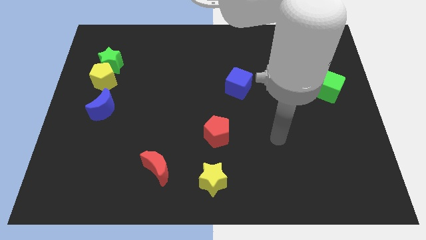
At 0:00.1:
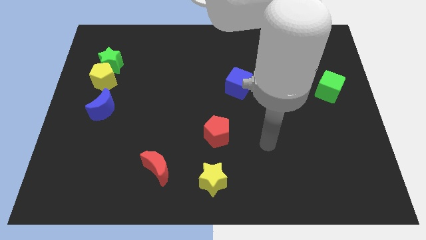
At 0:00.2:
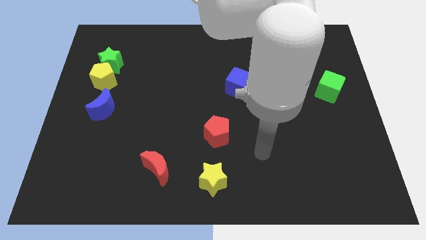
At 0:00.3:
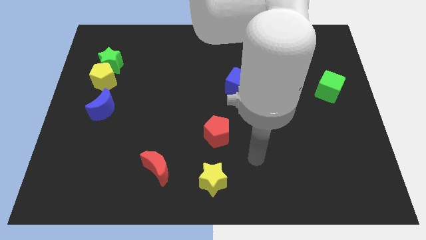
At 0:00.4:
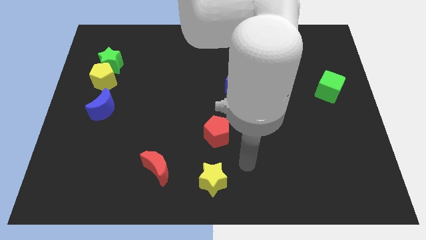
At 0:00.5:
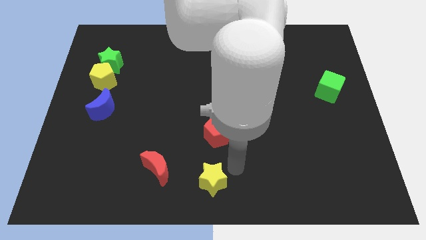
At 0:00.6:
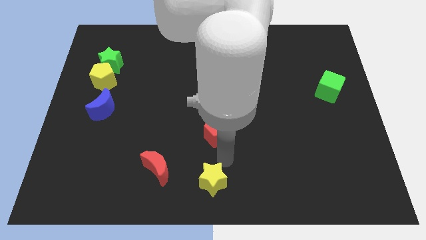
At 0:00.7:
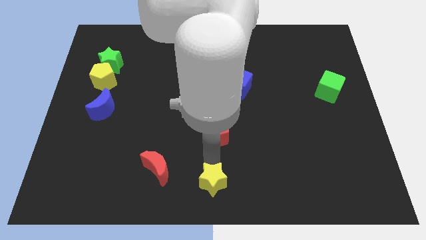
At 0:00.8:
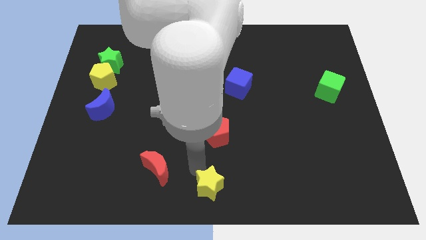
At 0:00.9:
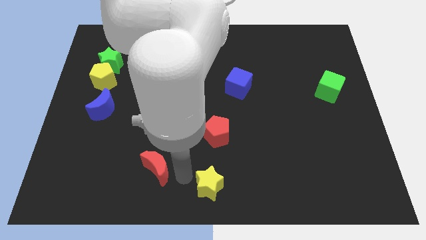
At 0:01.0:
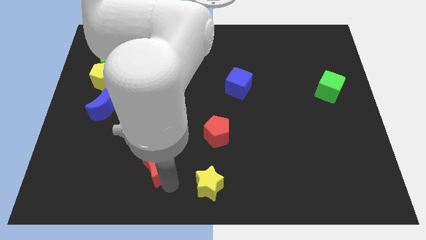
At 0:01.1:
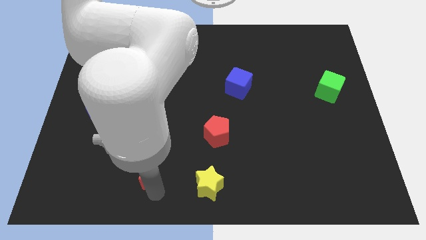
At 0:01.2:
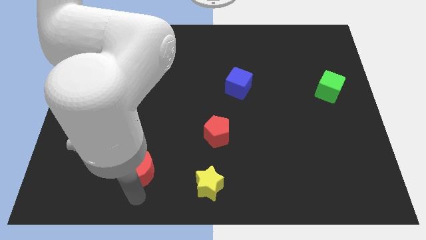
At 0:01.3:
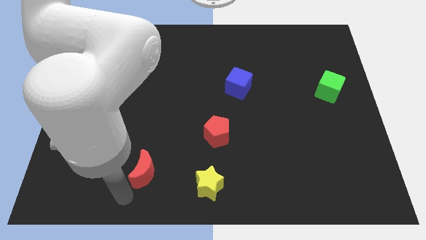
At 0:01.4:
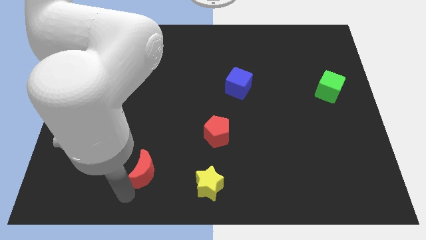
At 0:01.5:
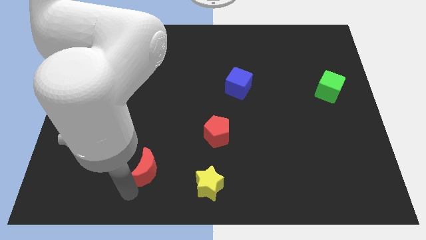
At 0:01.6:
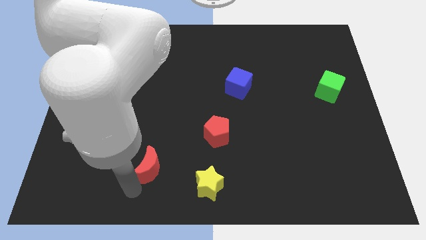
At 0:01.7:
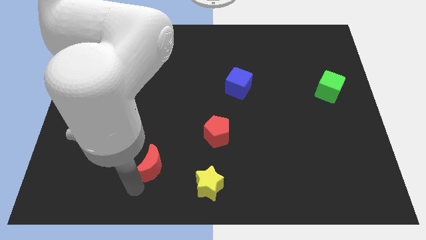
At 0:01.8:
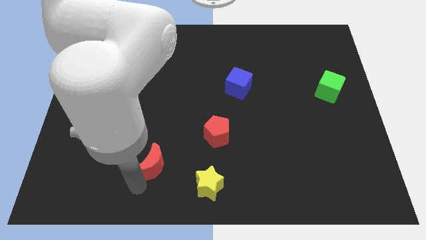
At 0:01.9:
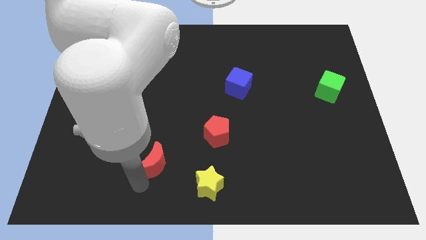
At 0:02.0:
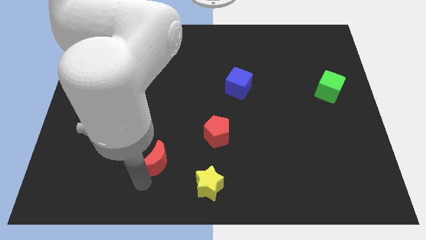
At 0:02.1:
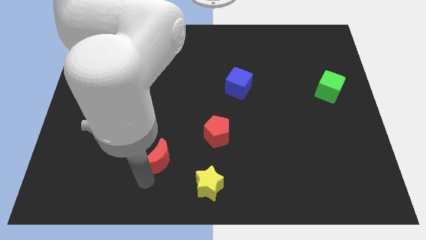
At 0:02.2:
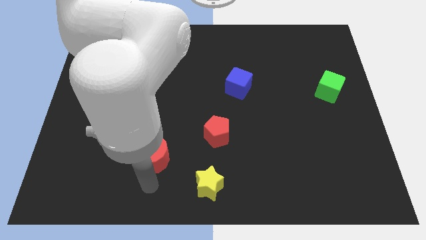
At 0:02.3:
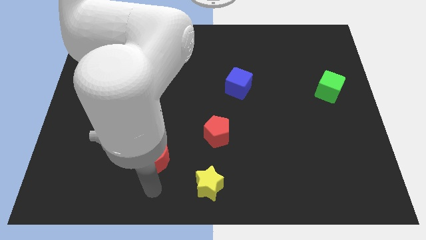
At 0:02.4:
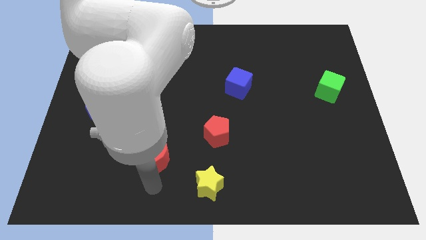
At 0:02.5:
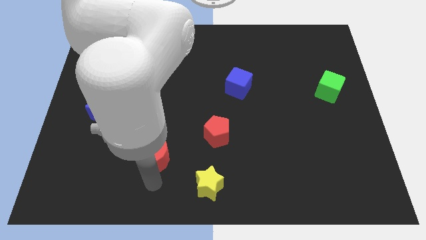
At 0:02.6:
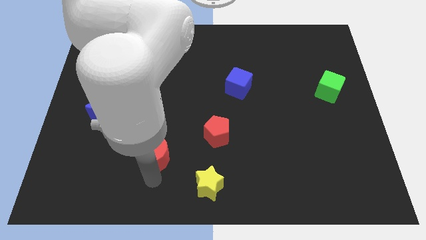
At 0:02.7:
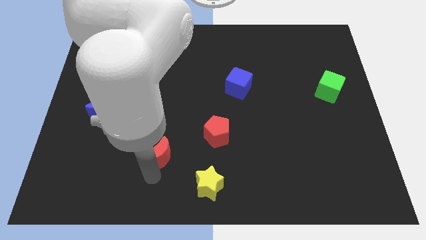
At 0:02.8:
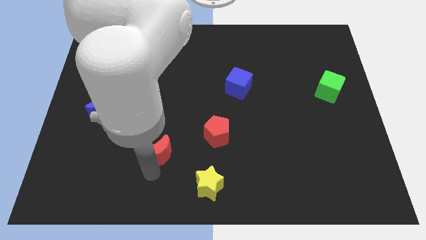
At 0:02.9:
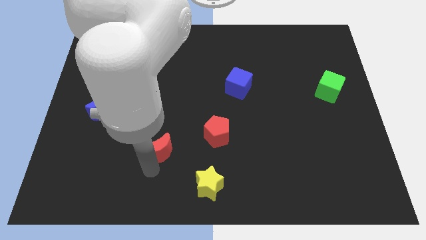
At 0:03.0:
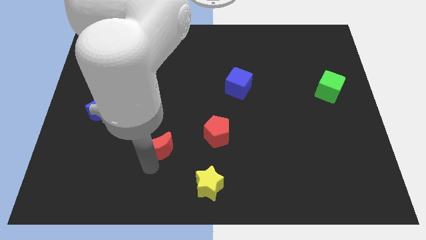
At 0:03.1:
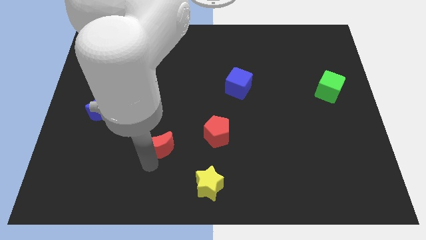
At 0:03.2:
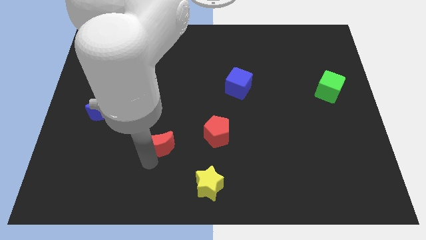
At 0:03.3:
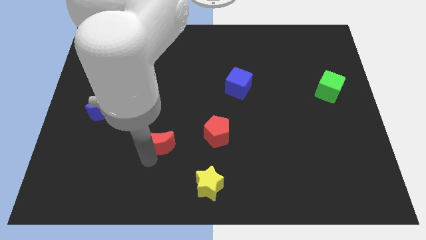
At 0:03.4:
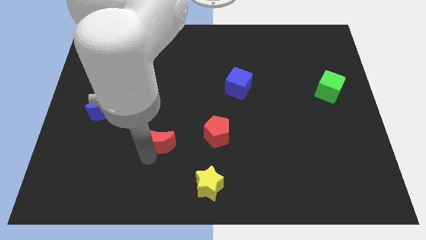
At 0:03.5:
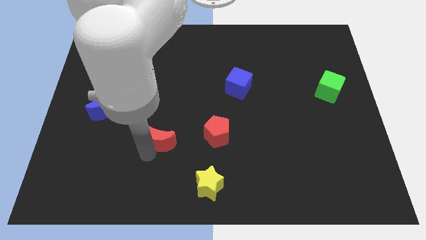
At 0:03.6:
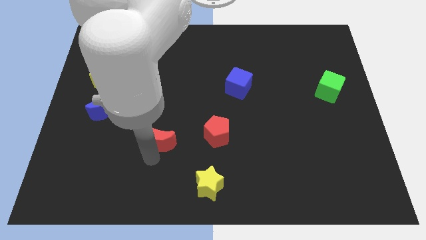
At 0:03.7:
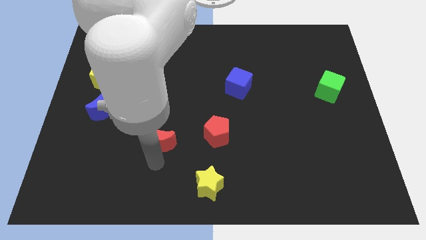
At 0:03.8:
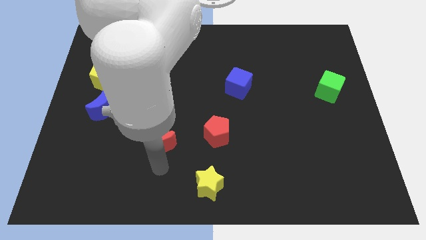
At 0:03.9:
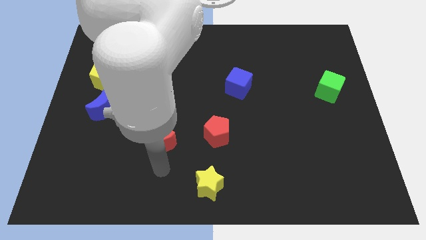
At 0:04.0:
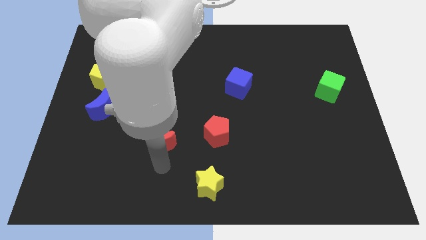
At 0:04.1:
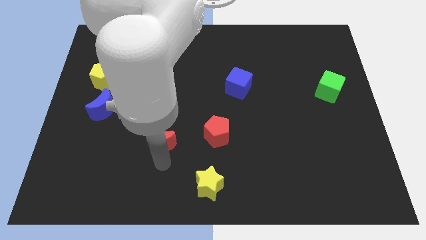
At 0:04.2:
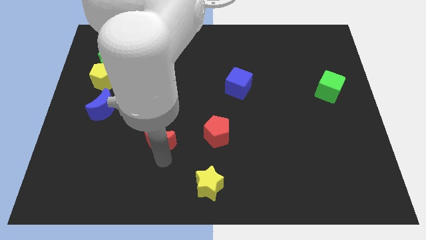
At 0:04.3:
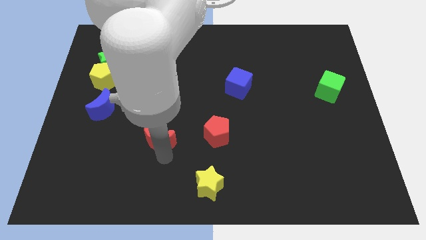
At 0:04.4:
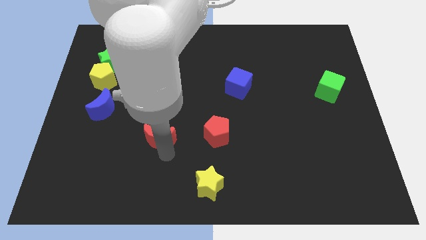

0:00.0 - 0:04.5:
slide the red moon a little up

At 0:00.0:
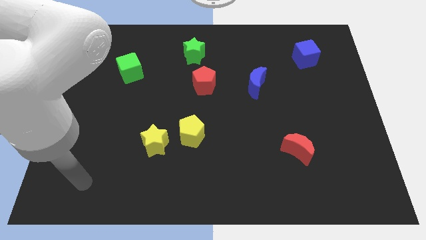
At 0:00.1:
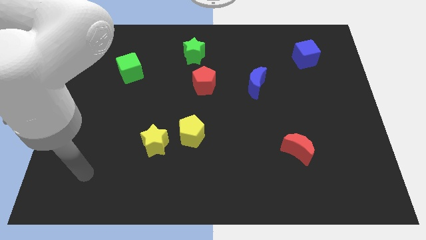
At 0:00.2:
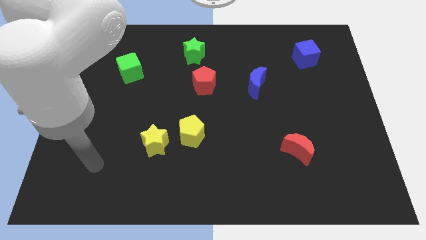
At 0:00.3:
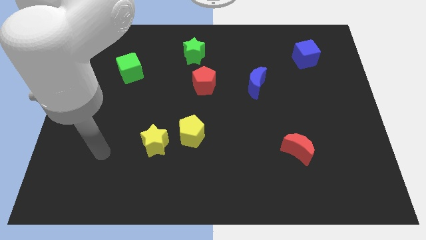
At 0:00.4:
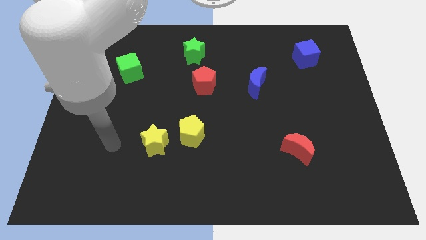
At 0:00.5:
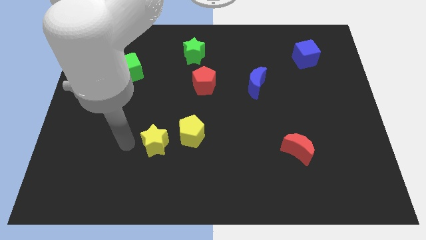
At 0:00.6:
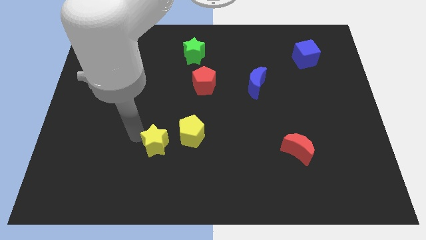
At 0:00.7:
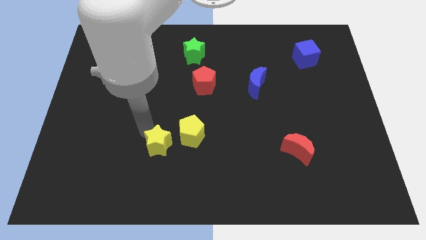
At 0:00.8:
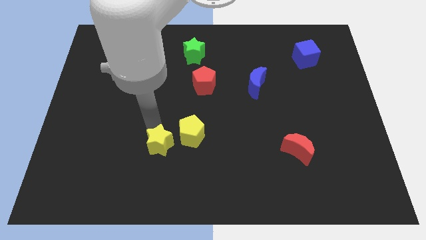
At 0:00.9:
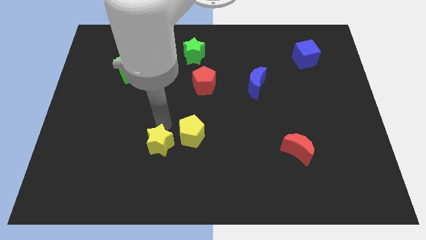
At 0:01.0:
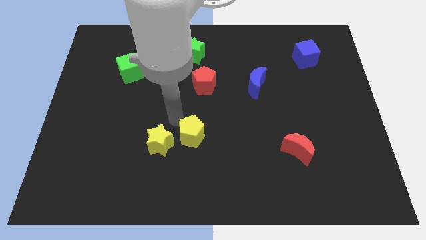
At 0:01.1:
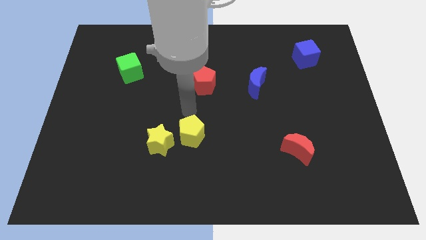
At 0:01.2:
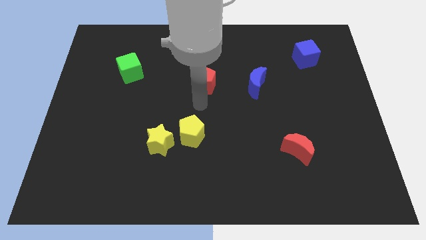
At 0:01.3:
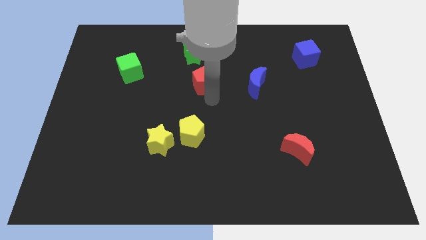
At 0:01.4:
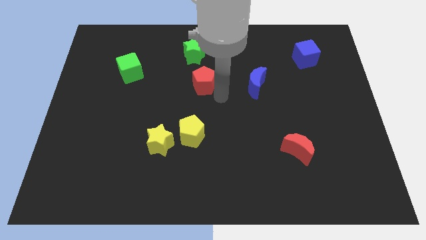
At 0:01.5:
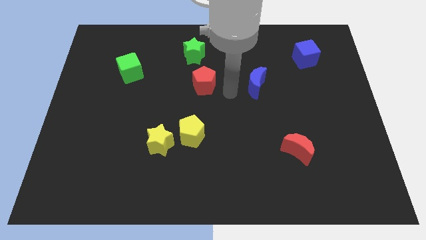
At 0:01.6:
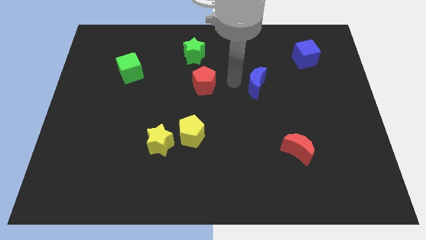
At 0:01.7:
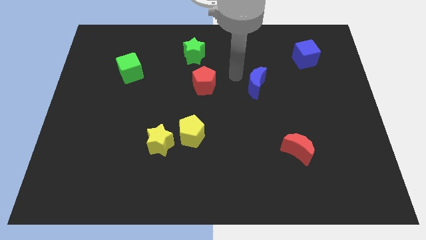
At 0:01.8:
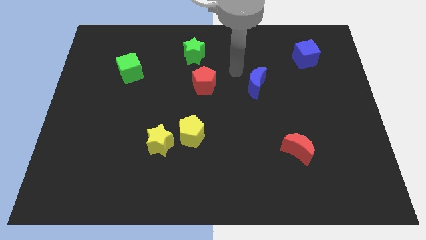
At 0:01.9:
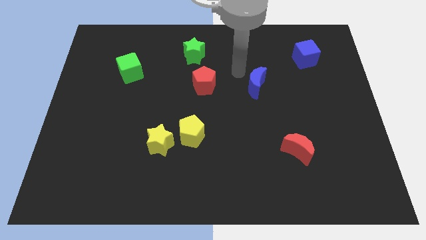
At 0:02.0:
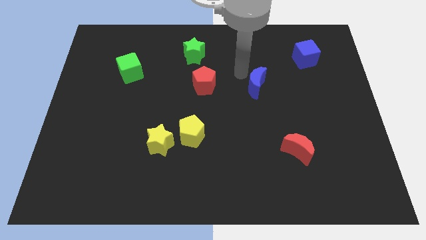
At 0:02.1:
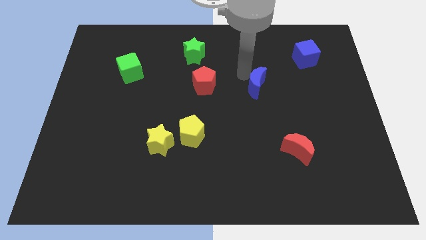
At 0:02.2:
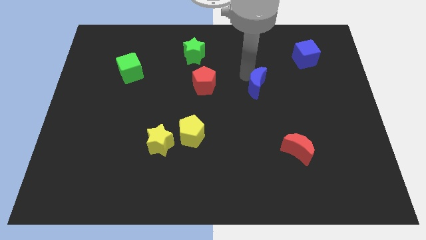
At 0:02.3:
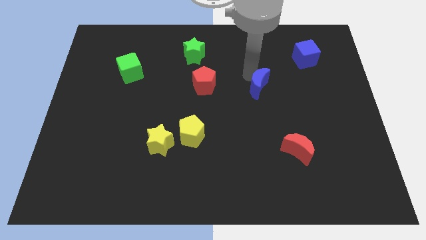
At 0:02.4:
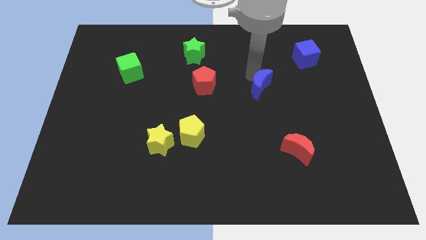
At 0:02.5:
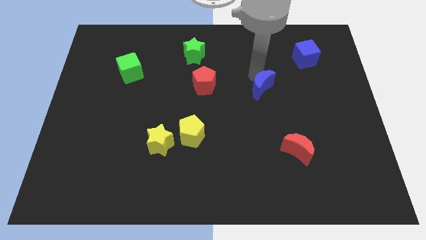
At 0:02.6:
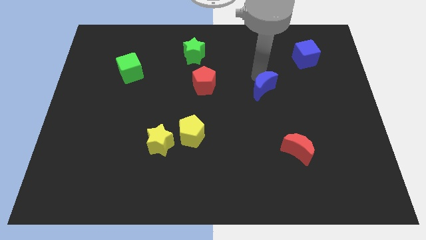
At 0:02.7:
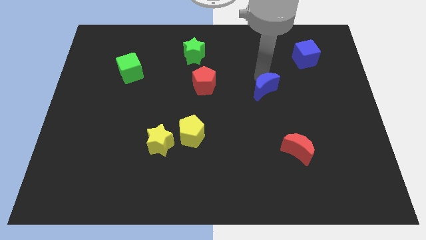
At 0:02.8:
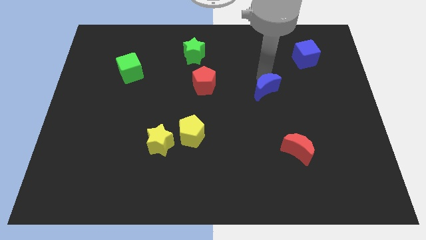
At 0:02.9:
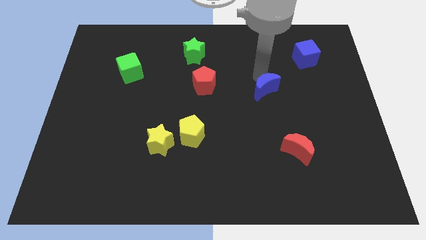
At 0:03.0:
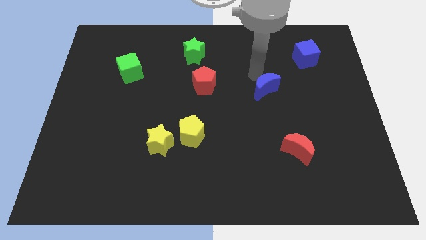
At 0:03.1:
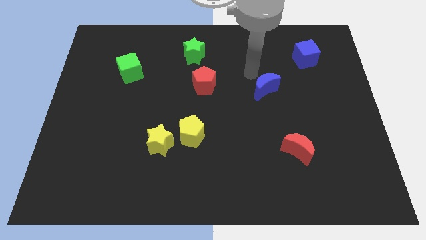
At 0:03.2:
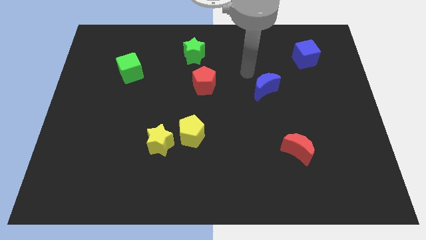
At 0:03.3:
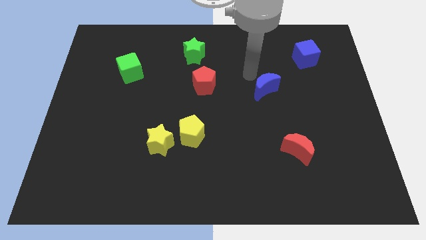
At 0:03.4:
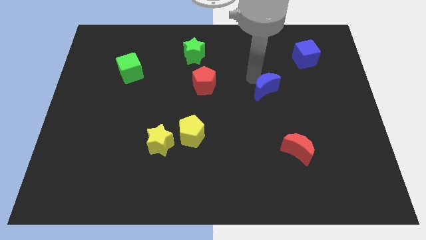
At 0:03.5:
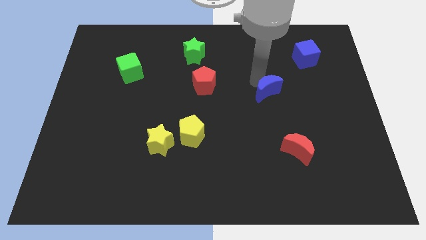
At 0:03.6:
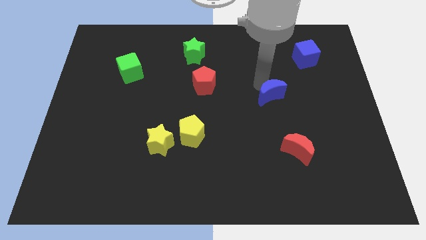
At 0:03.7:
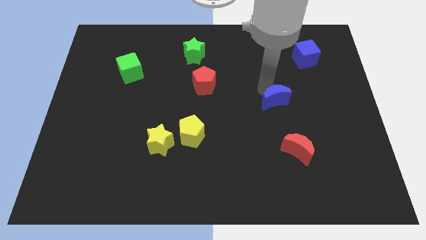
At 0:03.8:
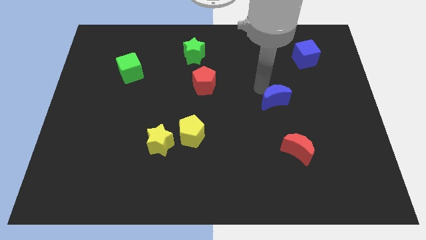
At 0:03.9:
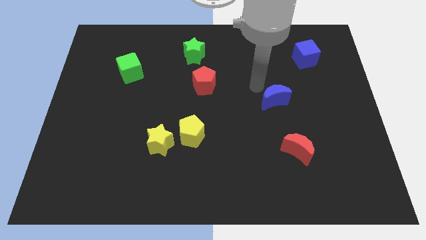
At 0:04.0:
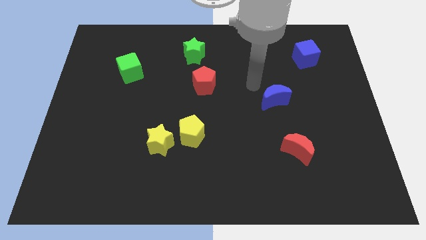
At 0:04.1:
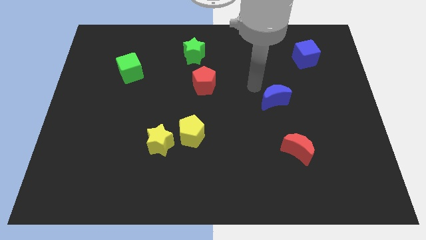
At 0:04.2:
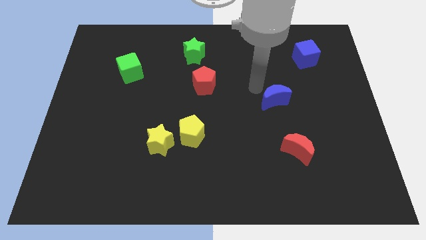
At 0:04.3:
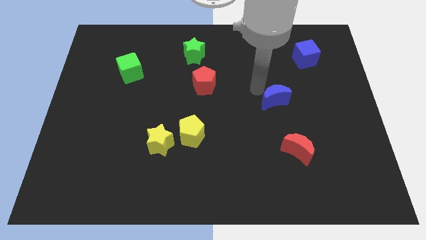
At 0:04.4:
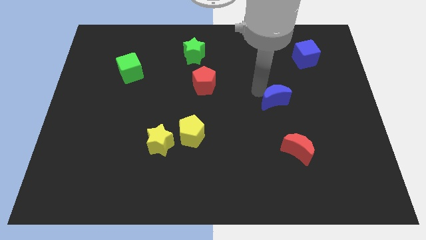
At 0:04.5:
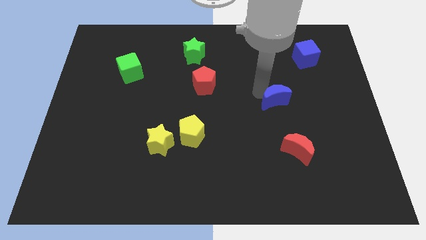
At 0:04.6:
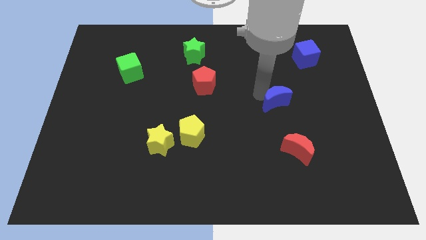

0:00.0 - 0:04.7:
slightly move the blue moon downwards and right
